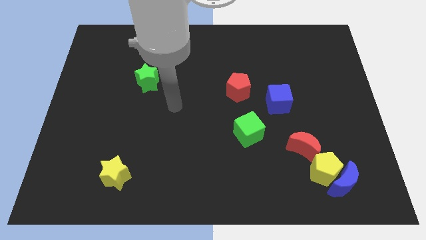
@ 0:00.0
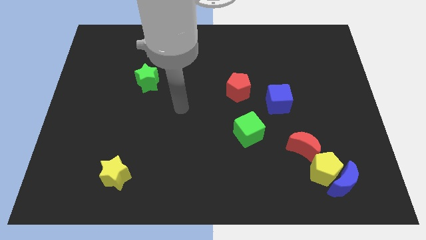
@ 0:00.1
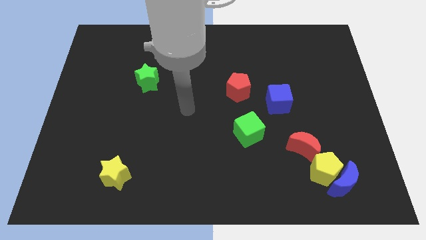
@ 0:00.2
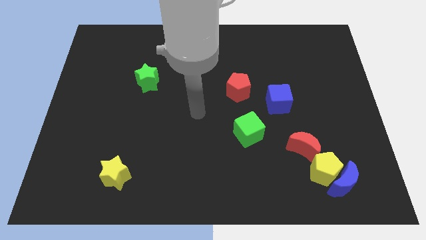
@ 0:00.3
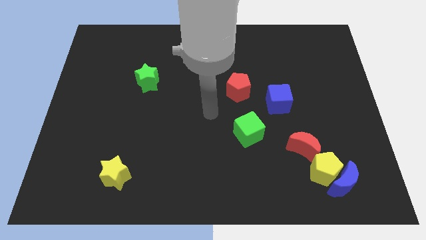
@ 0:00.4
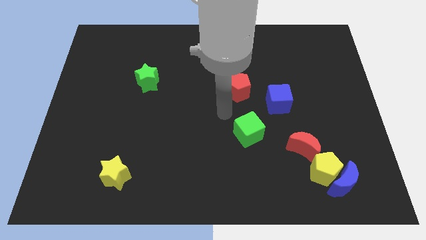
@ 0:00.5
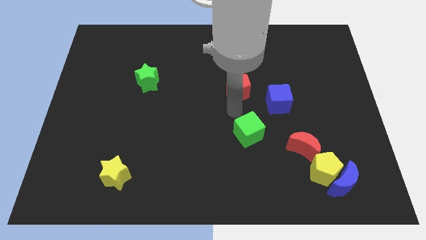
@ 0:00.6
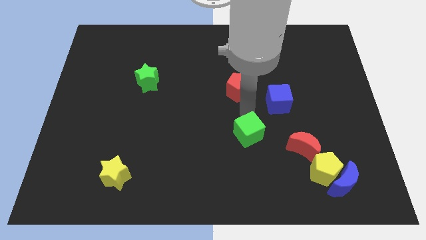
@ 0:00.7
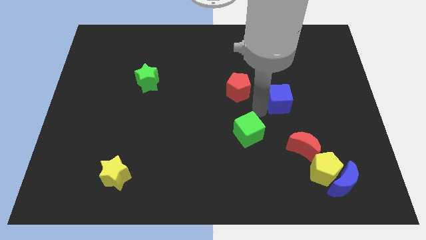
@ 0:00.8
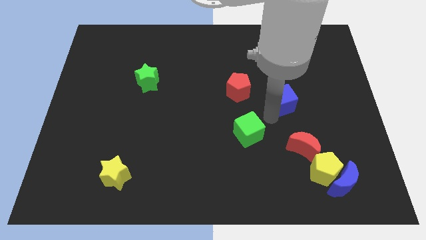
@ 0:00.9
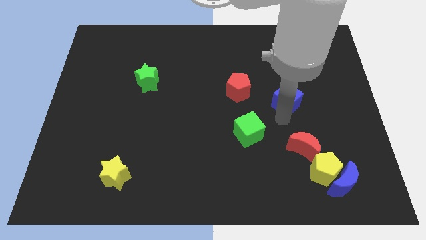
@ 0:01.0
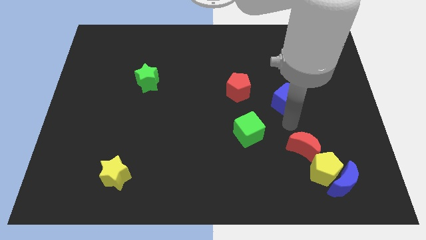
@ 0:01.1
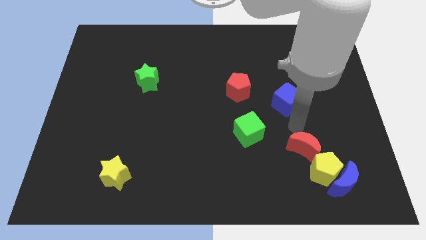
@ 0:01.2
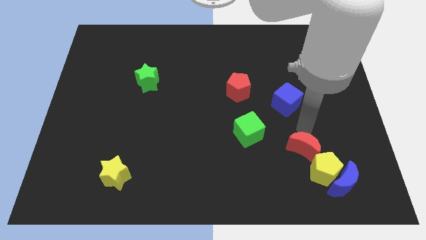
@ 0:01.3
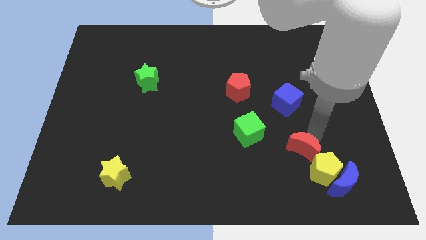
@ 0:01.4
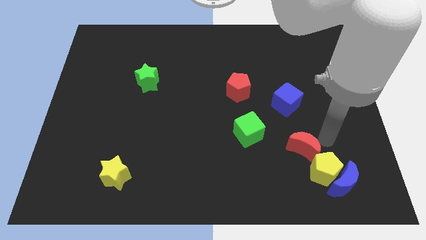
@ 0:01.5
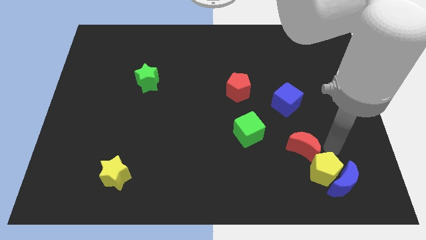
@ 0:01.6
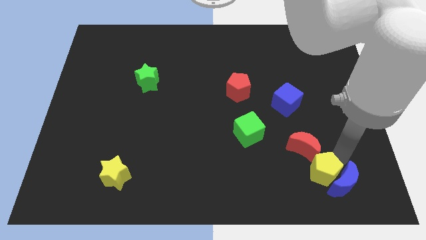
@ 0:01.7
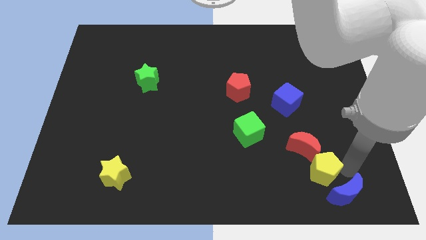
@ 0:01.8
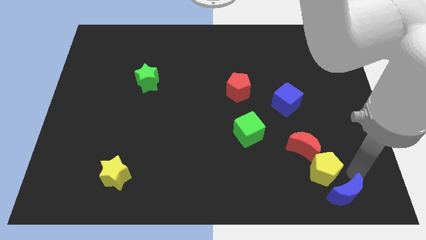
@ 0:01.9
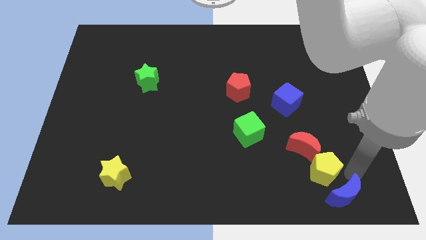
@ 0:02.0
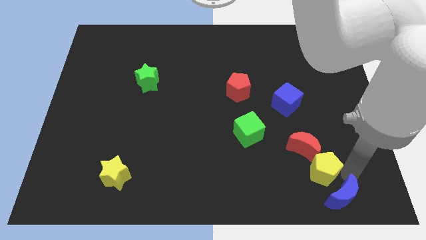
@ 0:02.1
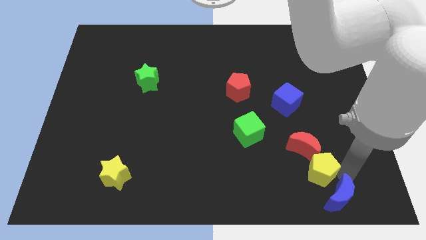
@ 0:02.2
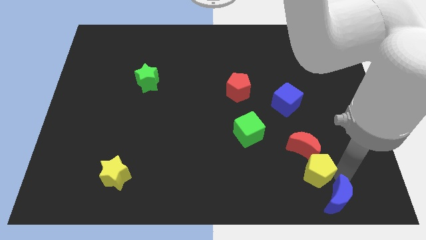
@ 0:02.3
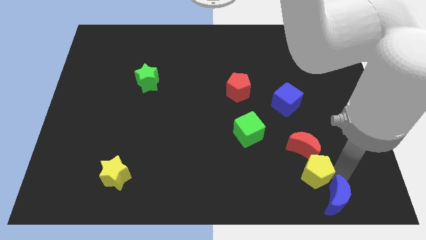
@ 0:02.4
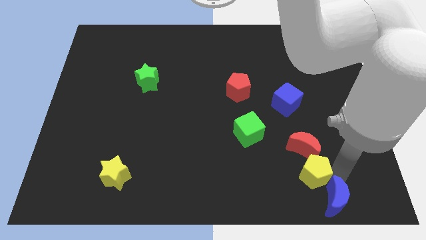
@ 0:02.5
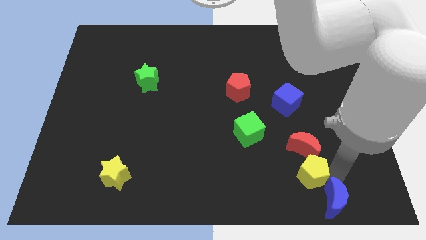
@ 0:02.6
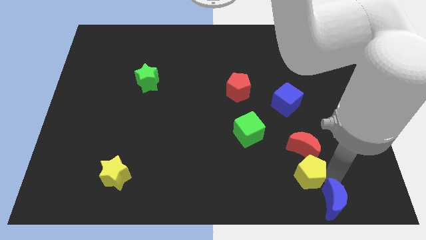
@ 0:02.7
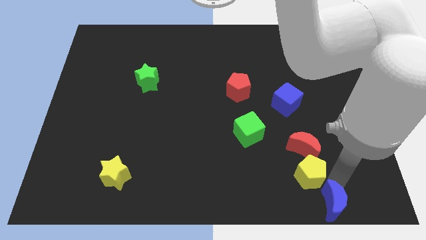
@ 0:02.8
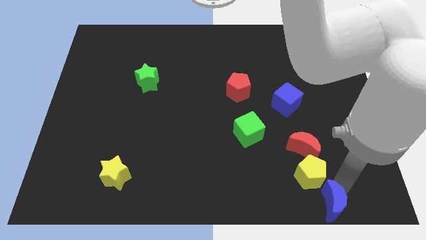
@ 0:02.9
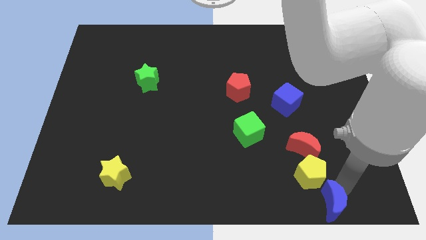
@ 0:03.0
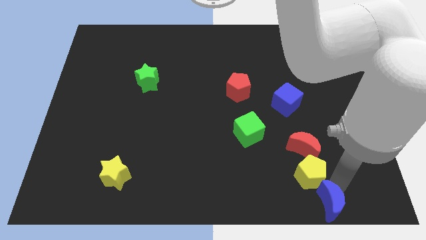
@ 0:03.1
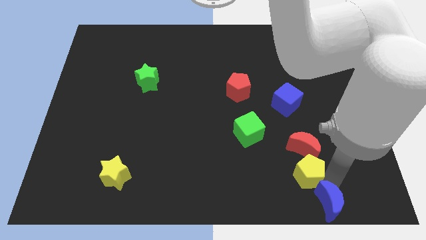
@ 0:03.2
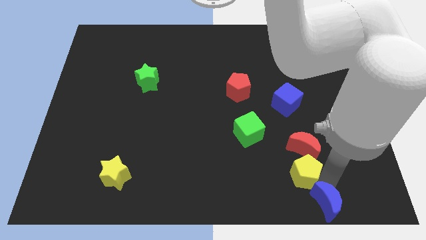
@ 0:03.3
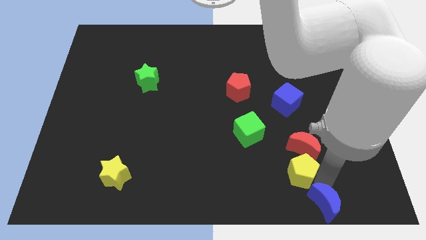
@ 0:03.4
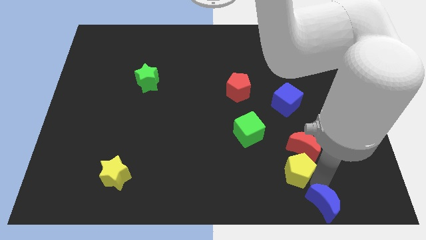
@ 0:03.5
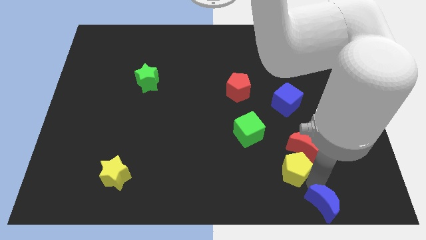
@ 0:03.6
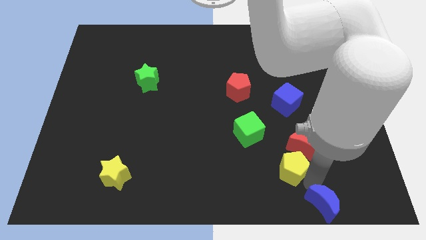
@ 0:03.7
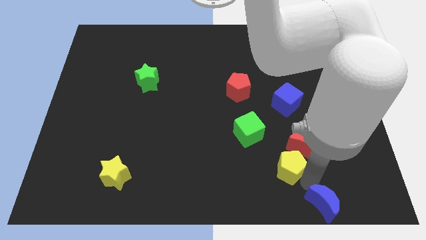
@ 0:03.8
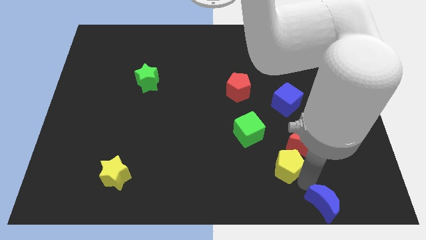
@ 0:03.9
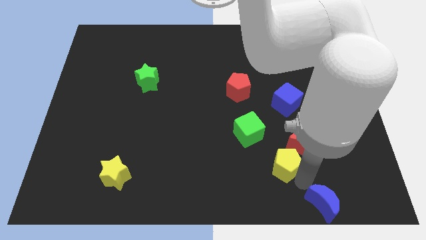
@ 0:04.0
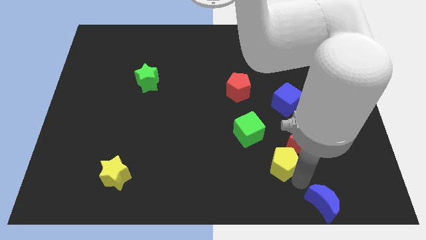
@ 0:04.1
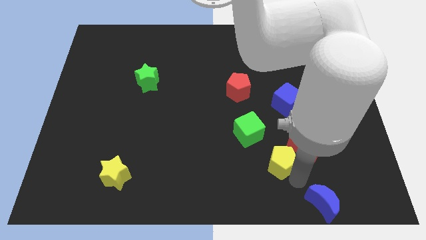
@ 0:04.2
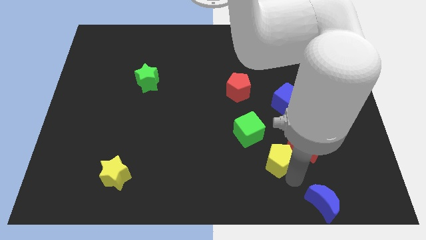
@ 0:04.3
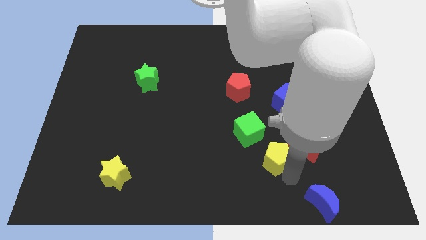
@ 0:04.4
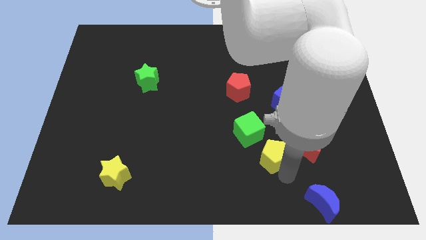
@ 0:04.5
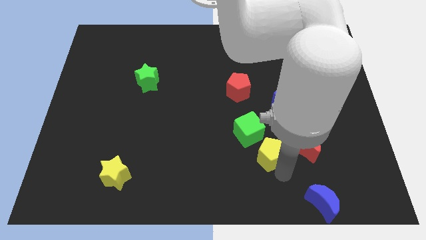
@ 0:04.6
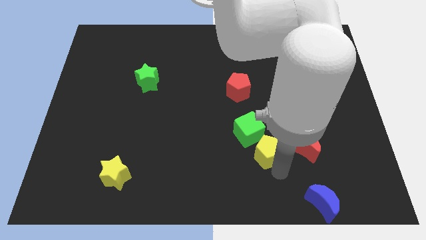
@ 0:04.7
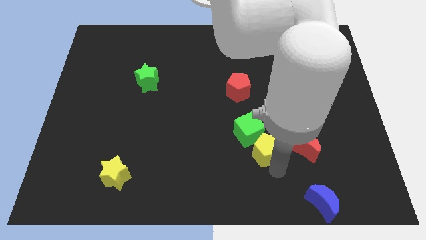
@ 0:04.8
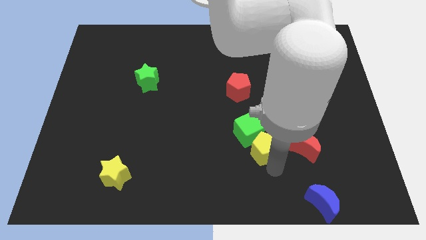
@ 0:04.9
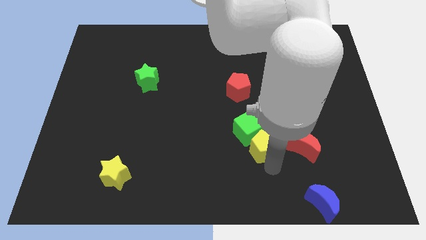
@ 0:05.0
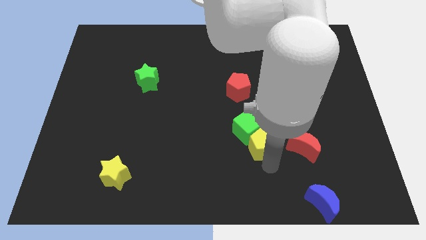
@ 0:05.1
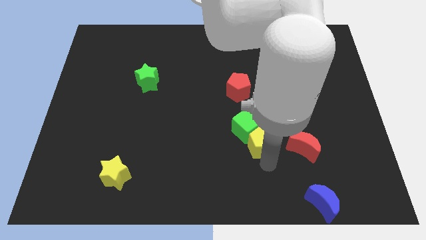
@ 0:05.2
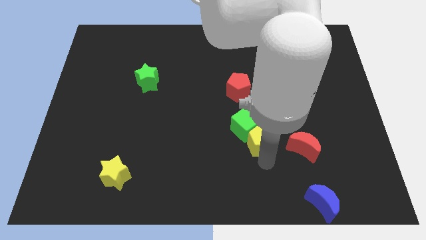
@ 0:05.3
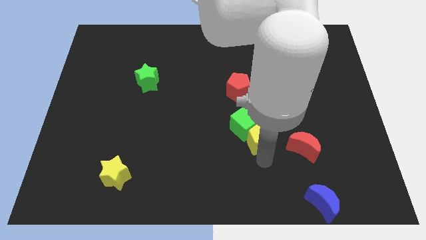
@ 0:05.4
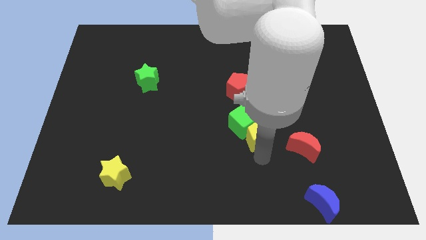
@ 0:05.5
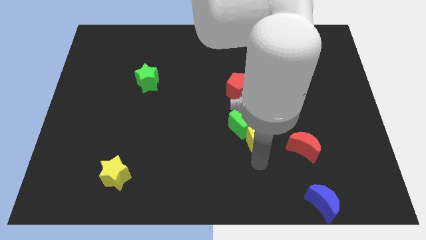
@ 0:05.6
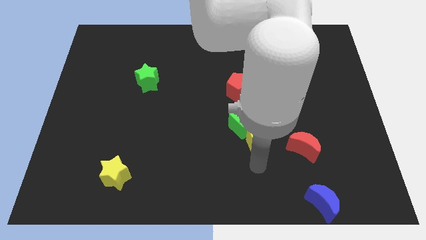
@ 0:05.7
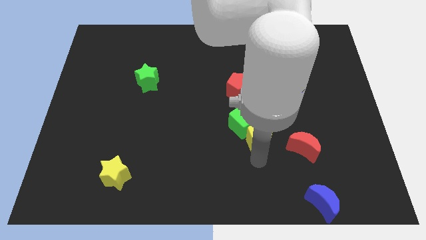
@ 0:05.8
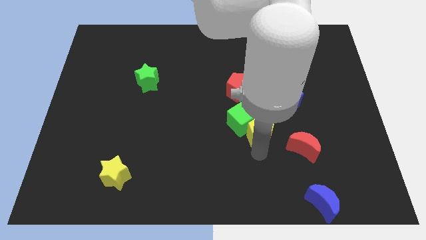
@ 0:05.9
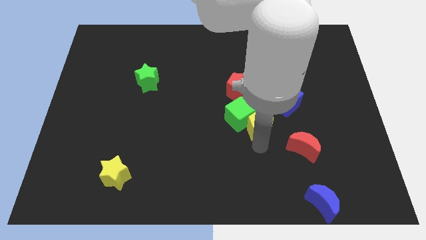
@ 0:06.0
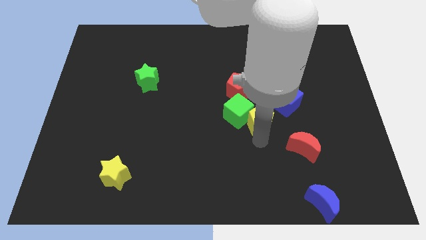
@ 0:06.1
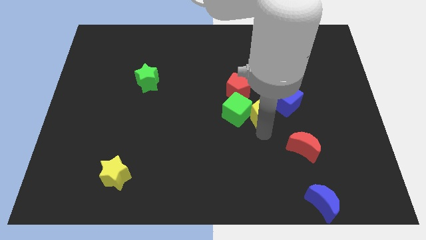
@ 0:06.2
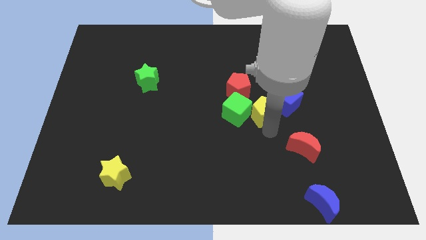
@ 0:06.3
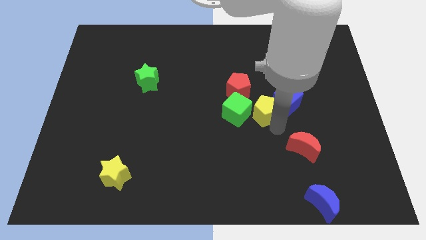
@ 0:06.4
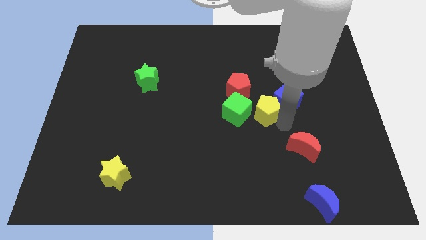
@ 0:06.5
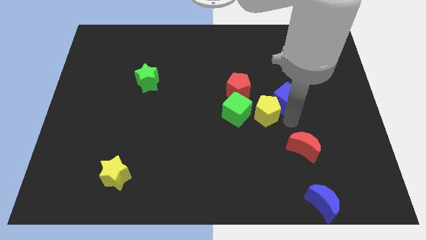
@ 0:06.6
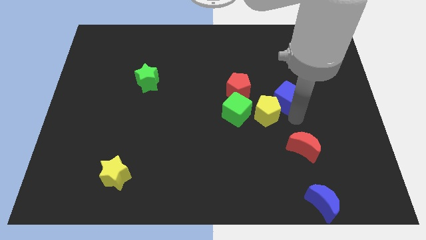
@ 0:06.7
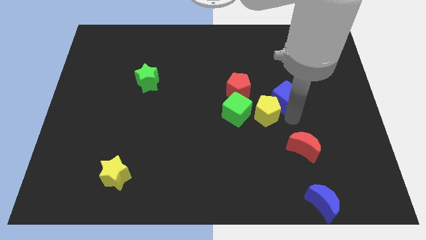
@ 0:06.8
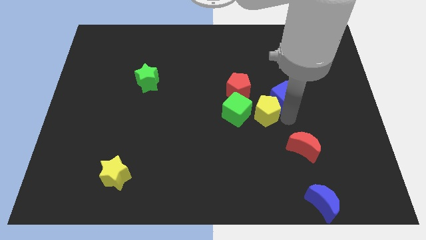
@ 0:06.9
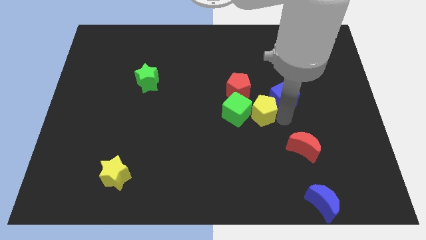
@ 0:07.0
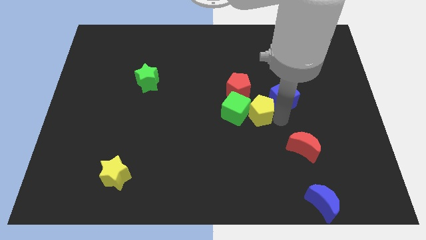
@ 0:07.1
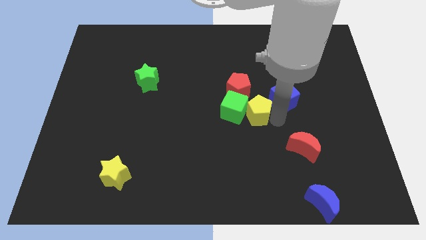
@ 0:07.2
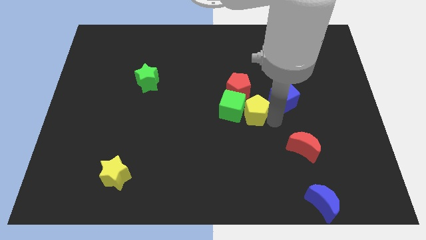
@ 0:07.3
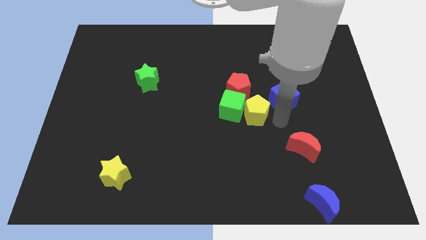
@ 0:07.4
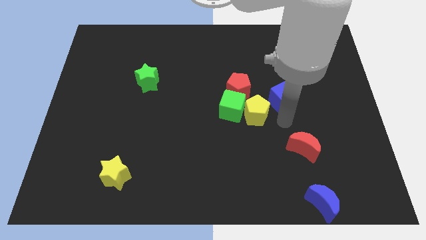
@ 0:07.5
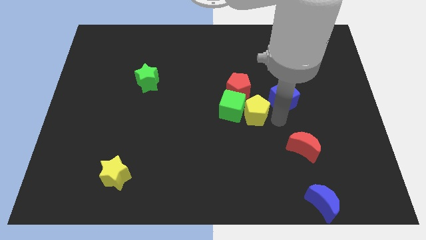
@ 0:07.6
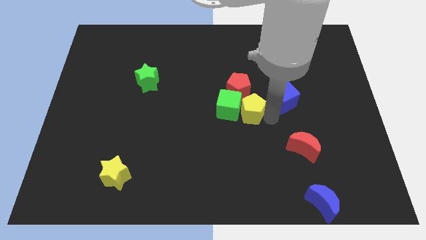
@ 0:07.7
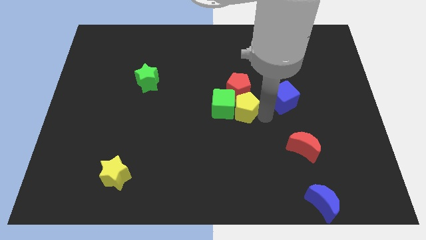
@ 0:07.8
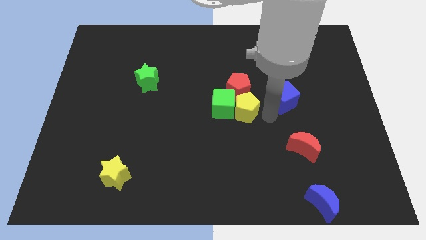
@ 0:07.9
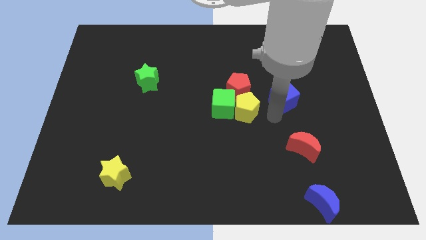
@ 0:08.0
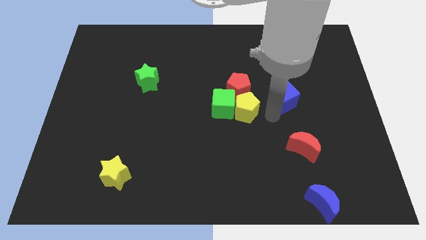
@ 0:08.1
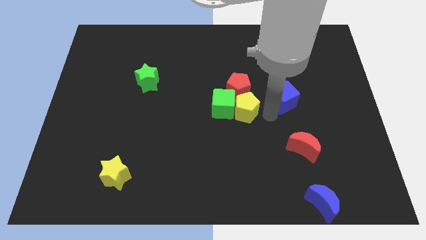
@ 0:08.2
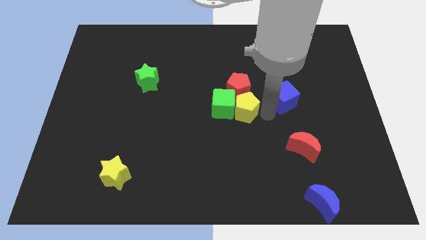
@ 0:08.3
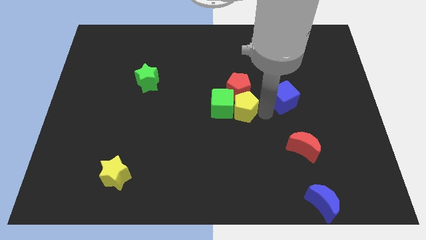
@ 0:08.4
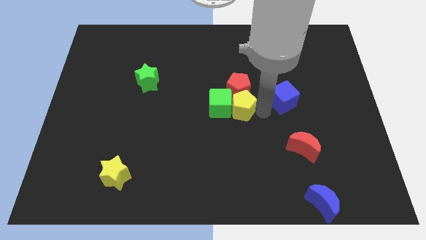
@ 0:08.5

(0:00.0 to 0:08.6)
slide the yellow pentagon to the bottom left side of the red pentagon
